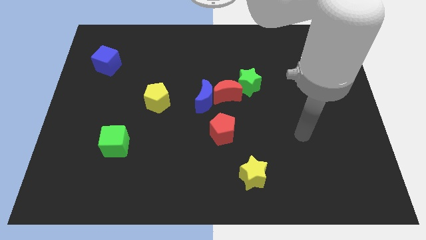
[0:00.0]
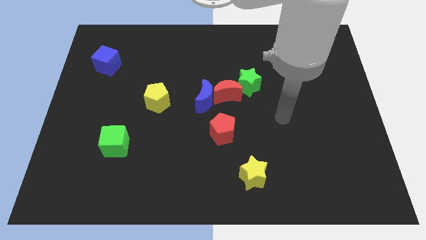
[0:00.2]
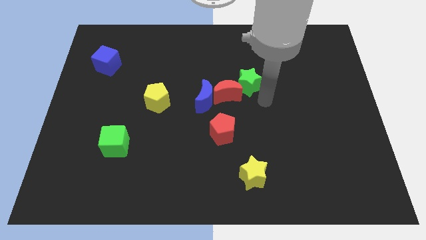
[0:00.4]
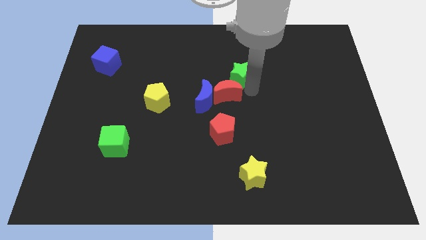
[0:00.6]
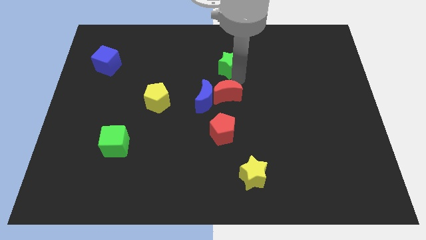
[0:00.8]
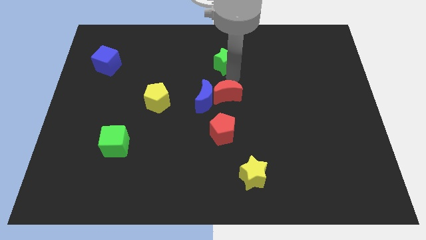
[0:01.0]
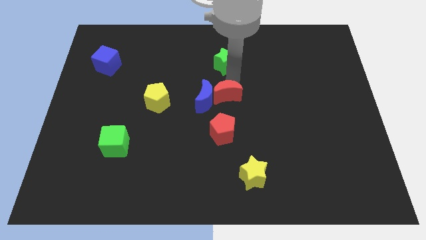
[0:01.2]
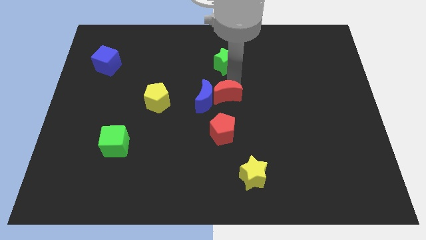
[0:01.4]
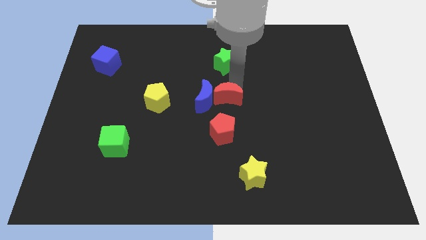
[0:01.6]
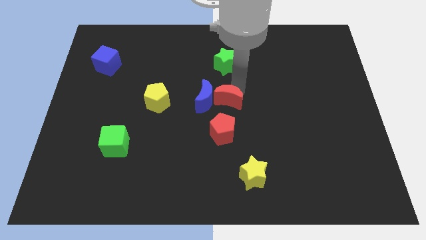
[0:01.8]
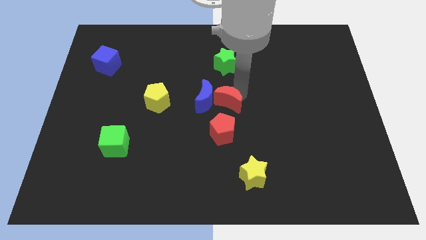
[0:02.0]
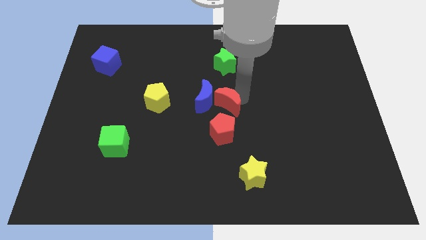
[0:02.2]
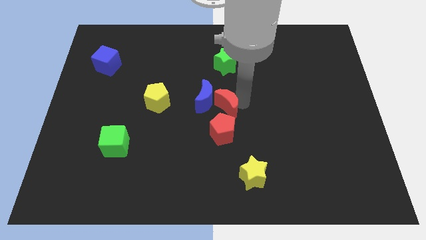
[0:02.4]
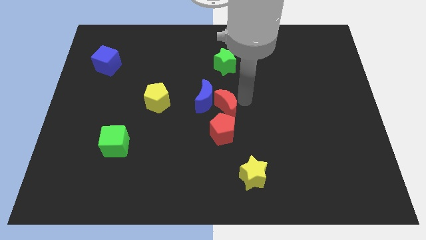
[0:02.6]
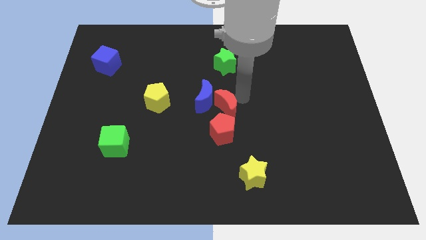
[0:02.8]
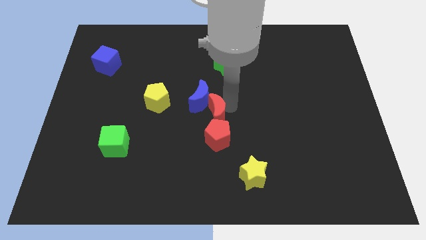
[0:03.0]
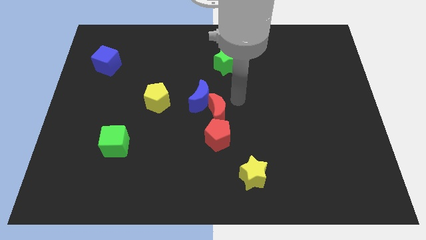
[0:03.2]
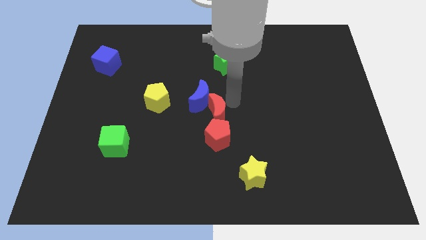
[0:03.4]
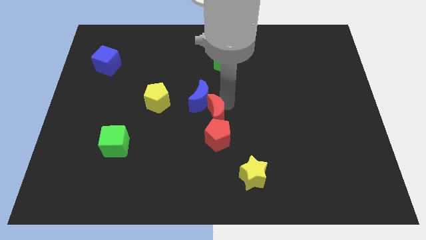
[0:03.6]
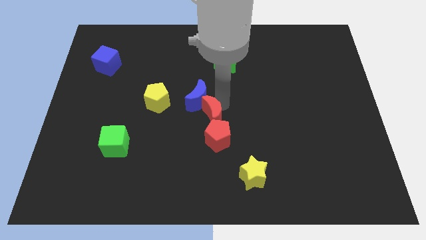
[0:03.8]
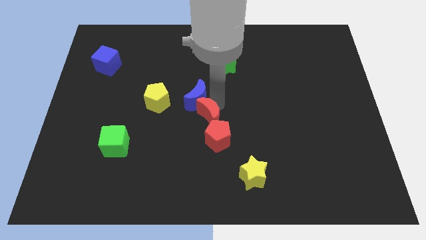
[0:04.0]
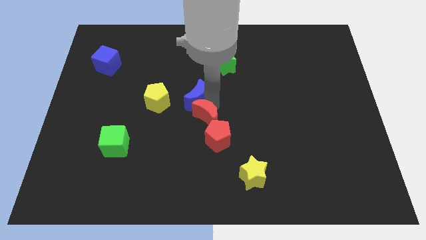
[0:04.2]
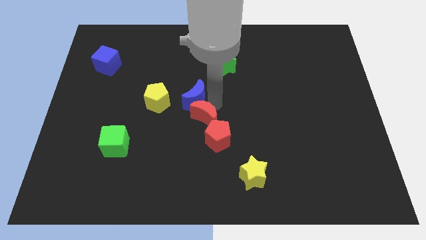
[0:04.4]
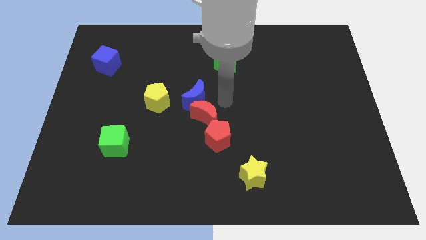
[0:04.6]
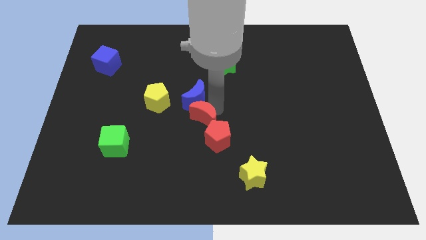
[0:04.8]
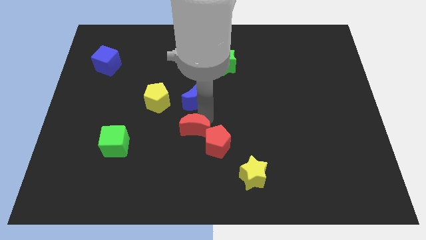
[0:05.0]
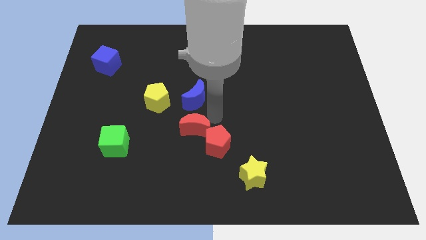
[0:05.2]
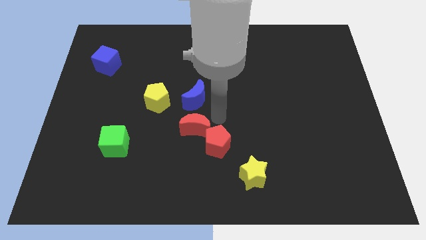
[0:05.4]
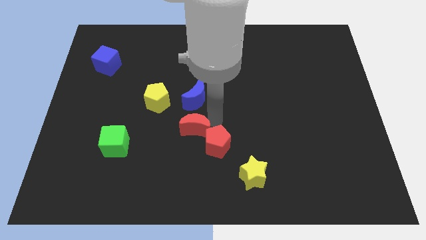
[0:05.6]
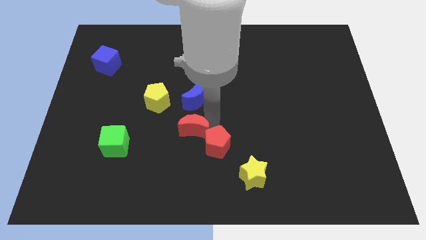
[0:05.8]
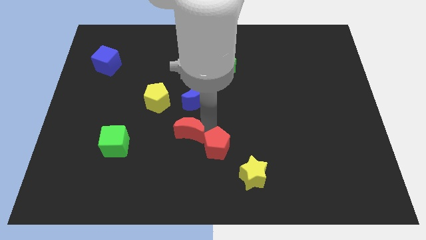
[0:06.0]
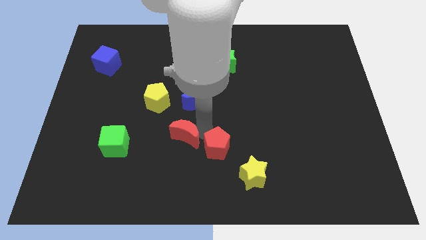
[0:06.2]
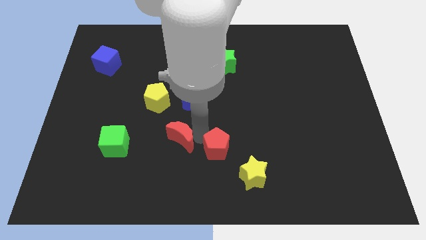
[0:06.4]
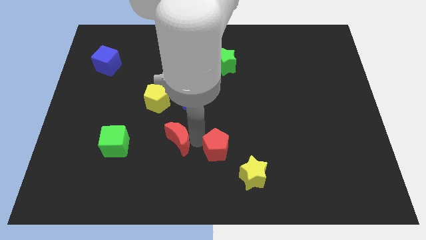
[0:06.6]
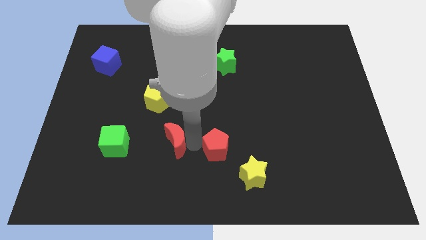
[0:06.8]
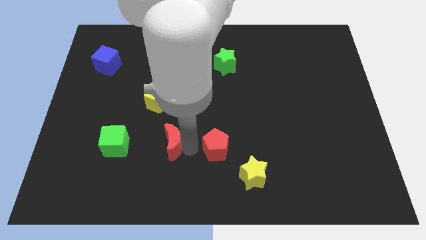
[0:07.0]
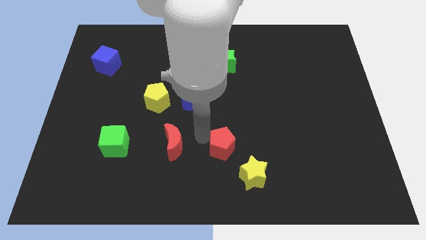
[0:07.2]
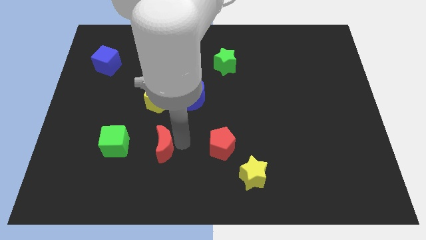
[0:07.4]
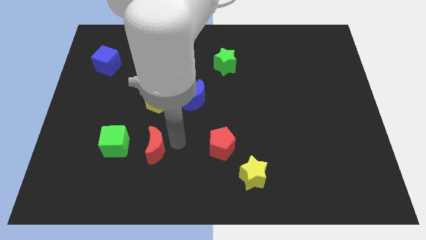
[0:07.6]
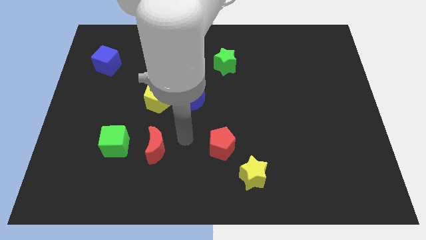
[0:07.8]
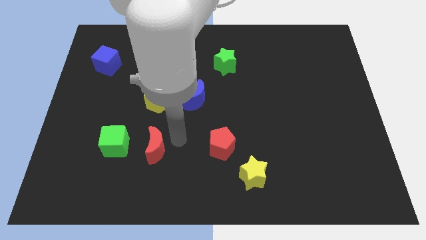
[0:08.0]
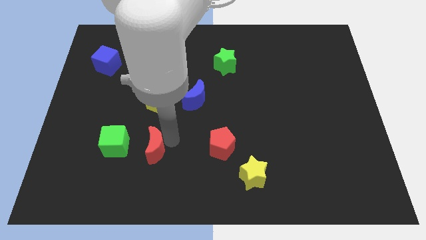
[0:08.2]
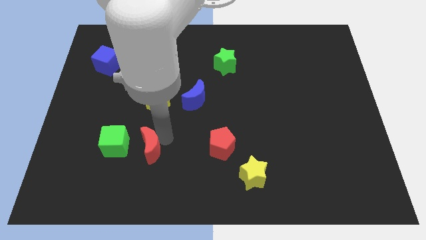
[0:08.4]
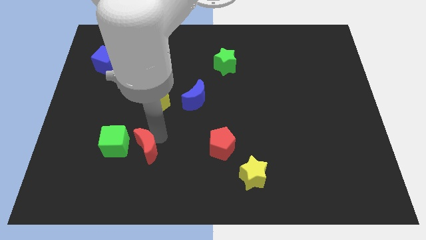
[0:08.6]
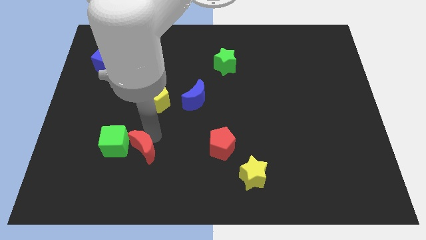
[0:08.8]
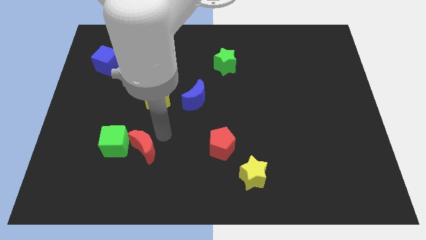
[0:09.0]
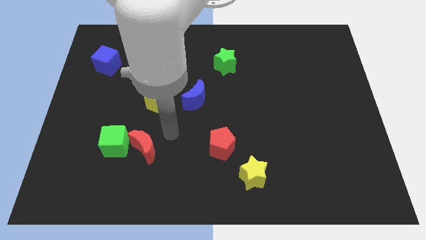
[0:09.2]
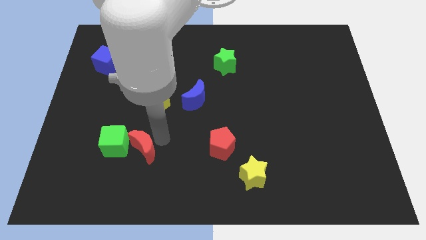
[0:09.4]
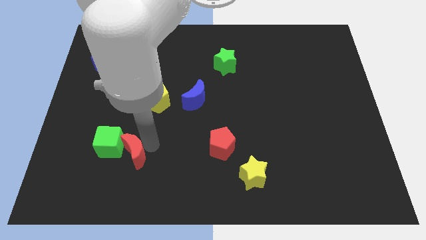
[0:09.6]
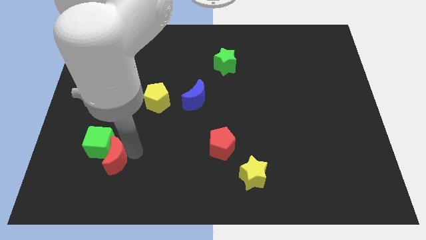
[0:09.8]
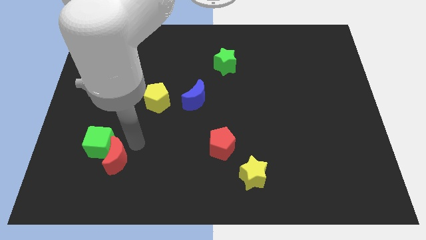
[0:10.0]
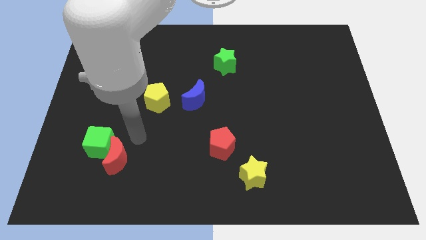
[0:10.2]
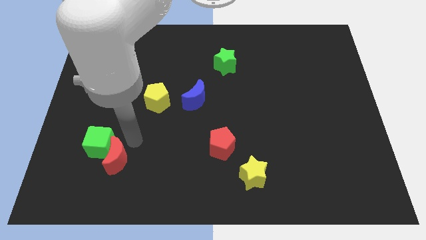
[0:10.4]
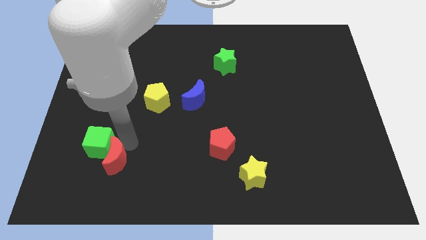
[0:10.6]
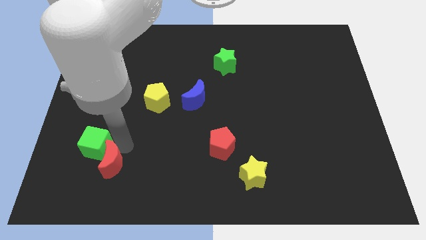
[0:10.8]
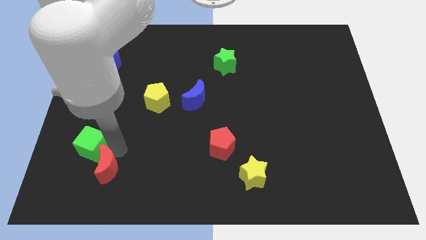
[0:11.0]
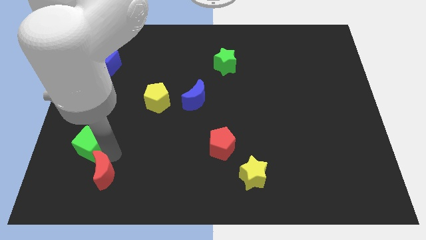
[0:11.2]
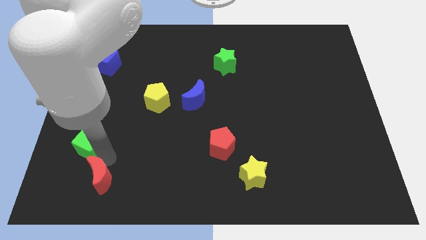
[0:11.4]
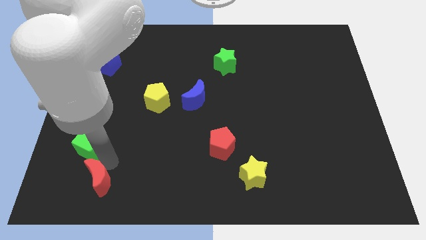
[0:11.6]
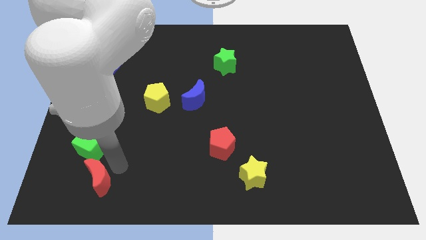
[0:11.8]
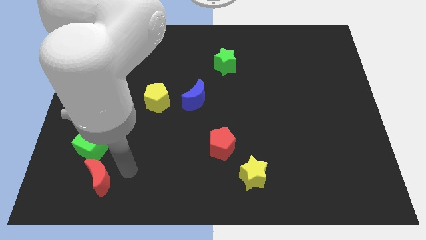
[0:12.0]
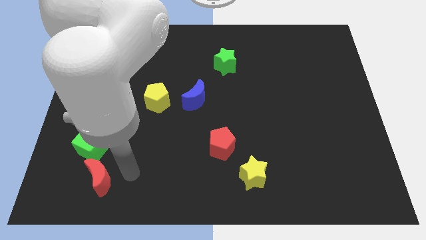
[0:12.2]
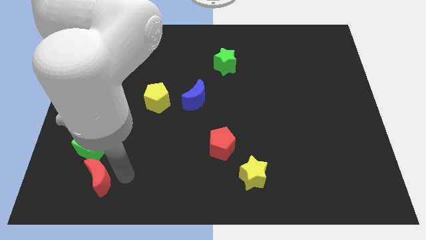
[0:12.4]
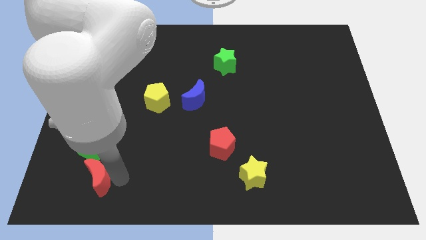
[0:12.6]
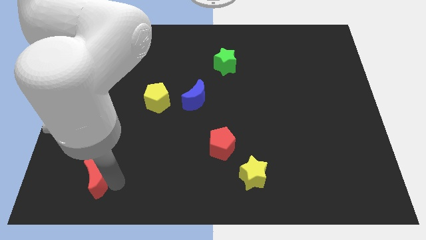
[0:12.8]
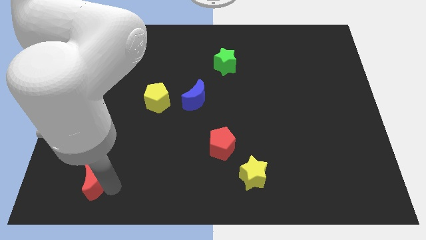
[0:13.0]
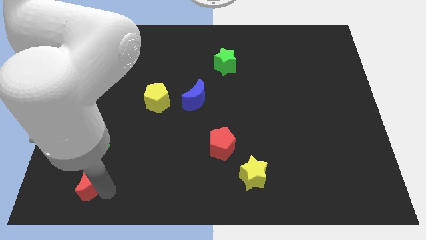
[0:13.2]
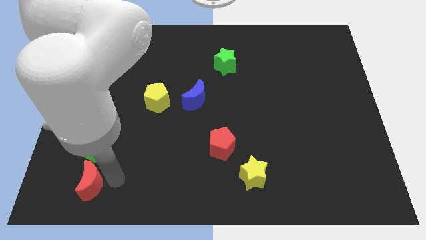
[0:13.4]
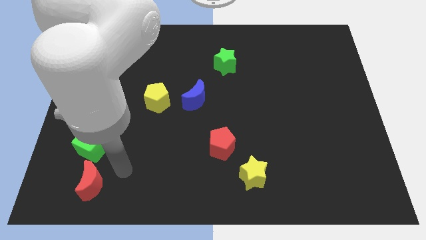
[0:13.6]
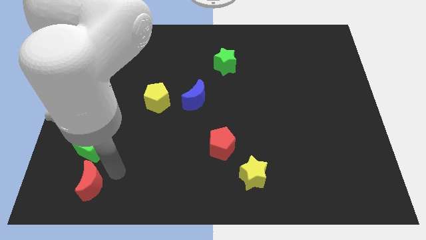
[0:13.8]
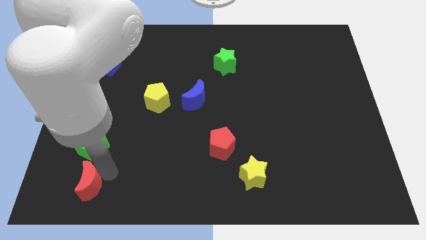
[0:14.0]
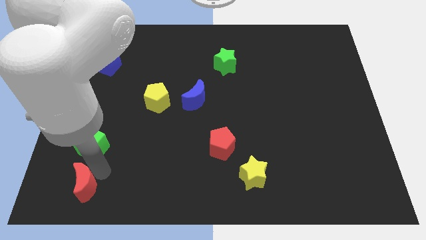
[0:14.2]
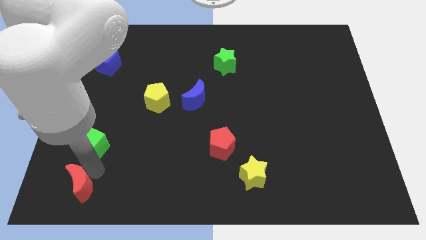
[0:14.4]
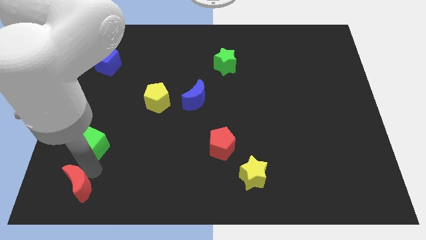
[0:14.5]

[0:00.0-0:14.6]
put the red moon to the bottom left
